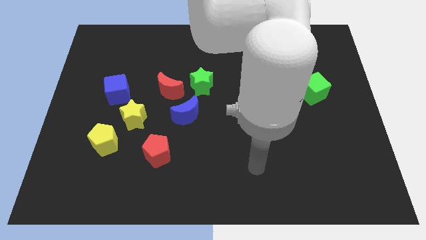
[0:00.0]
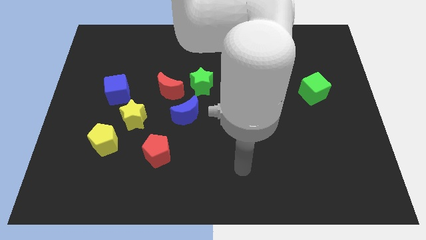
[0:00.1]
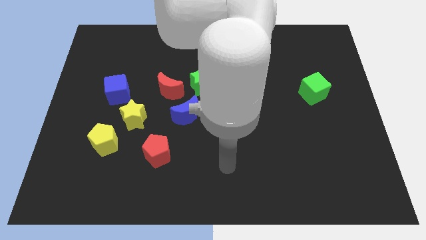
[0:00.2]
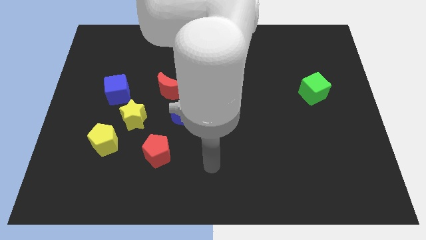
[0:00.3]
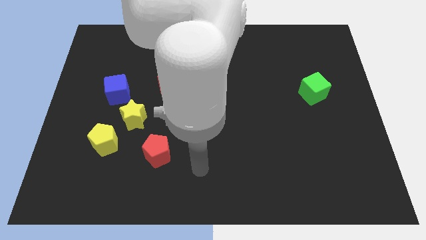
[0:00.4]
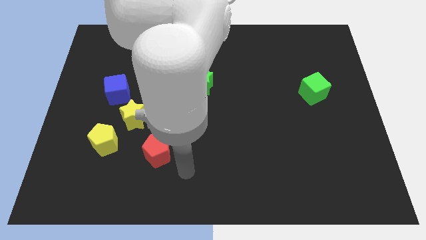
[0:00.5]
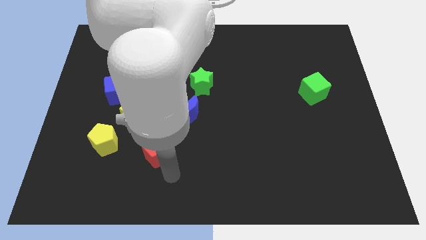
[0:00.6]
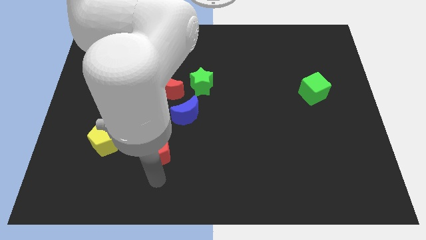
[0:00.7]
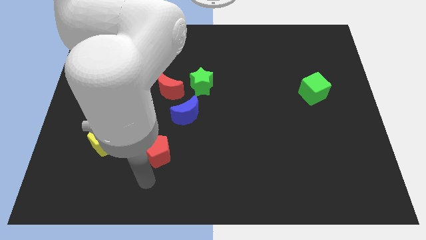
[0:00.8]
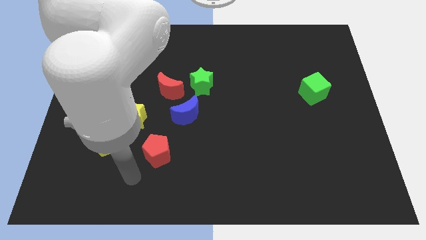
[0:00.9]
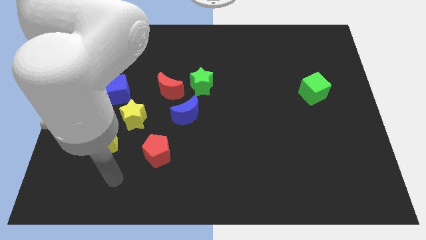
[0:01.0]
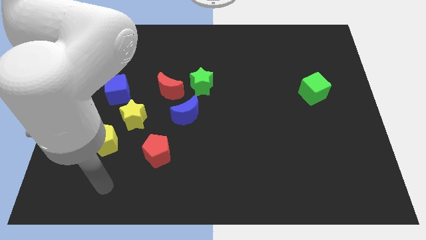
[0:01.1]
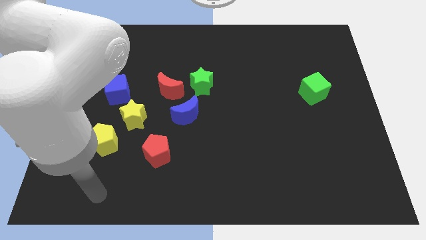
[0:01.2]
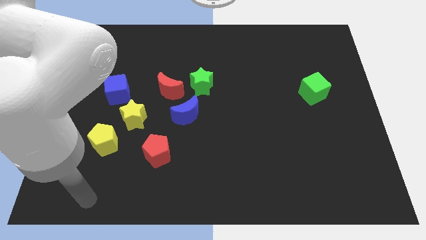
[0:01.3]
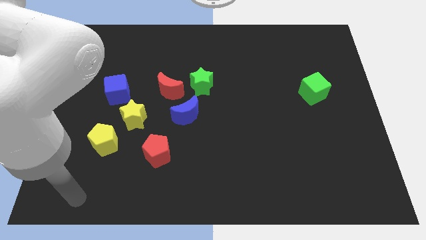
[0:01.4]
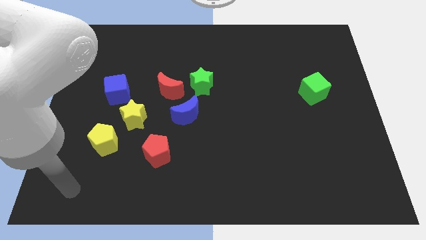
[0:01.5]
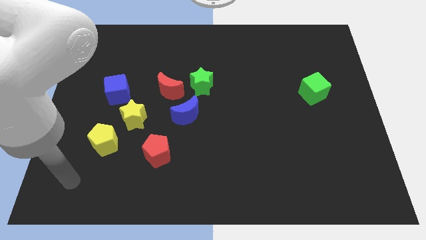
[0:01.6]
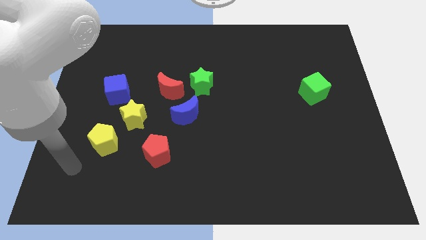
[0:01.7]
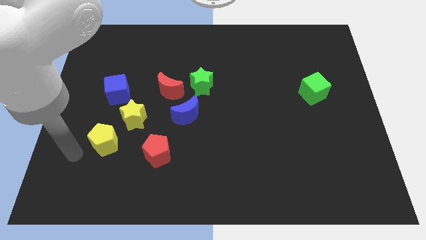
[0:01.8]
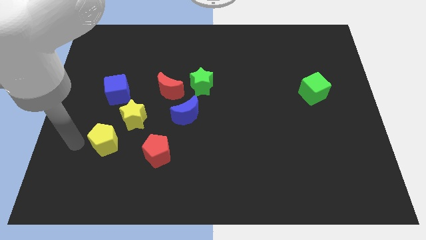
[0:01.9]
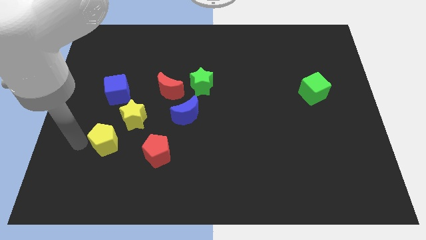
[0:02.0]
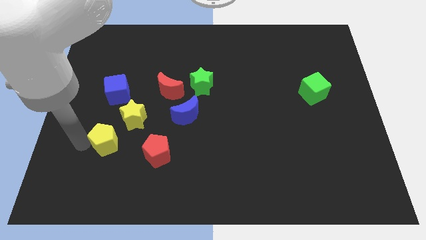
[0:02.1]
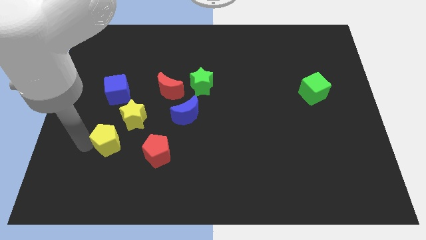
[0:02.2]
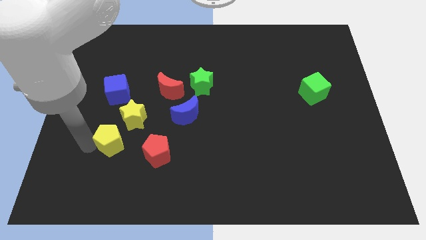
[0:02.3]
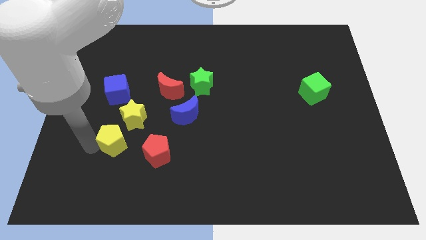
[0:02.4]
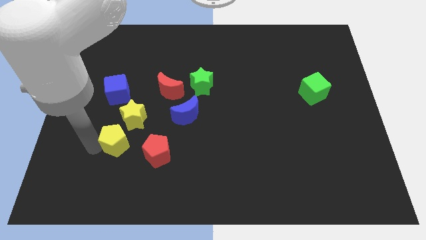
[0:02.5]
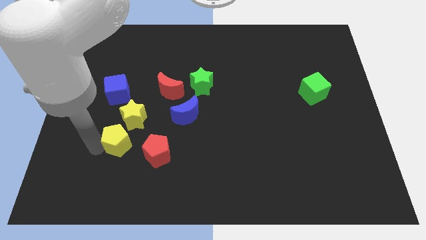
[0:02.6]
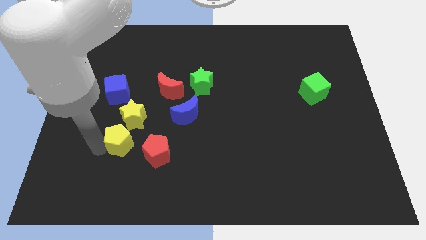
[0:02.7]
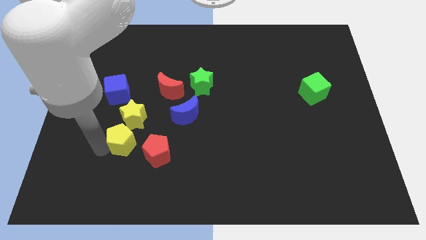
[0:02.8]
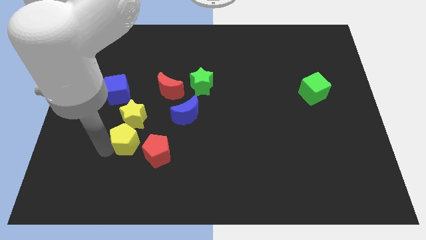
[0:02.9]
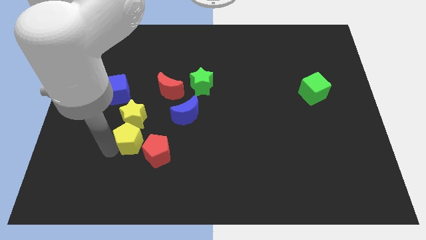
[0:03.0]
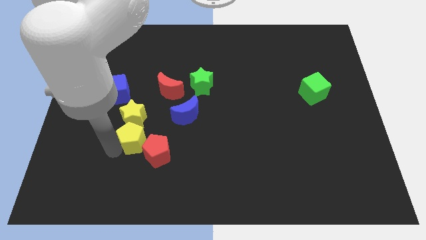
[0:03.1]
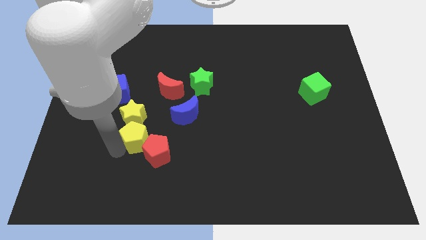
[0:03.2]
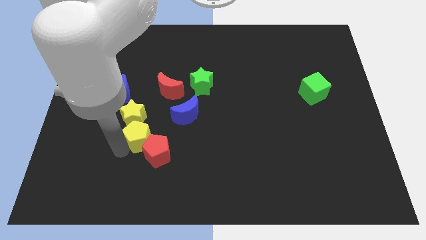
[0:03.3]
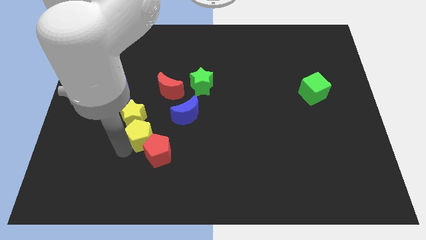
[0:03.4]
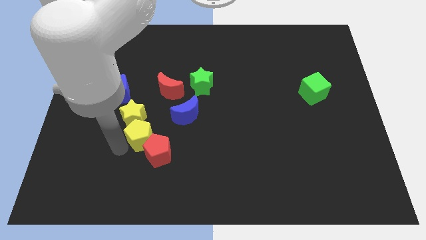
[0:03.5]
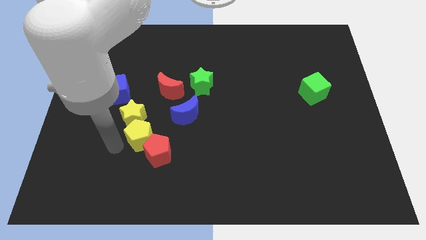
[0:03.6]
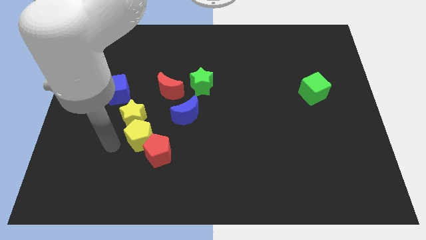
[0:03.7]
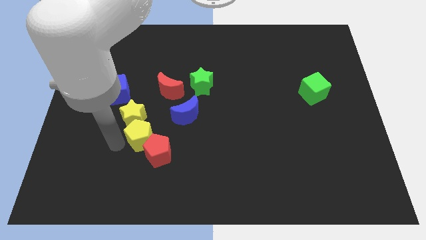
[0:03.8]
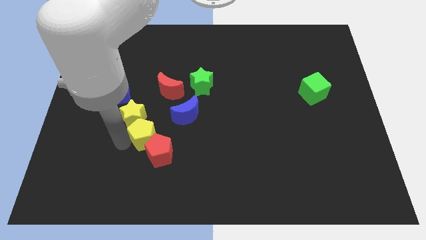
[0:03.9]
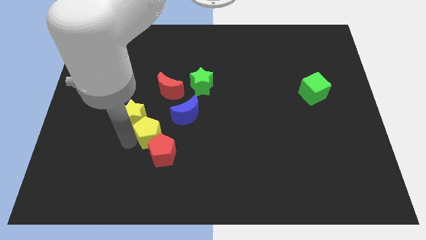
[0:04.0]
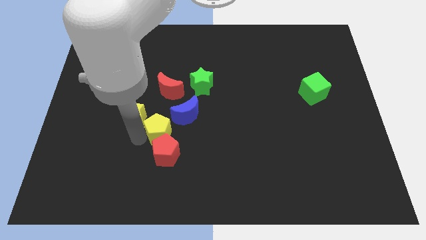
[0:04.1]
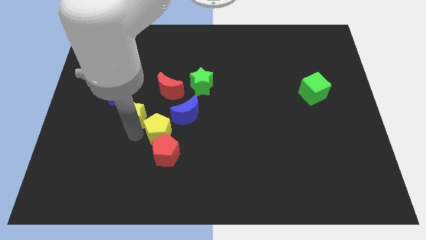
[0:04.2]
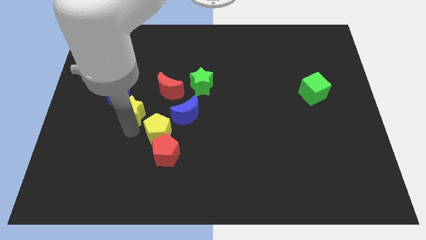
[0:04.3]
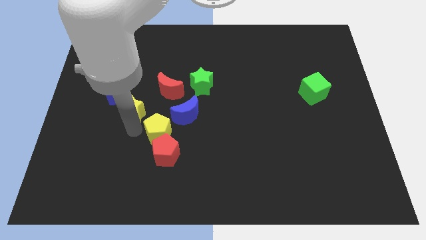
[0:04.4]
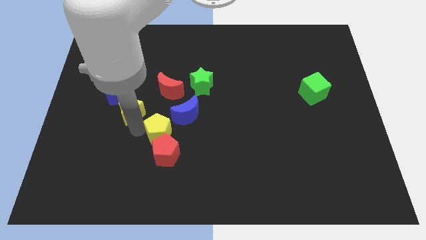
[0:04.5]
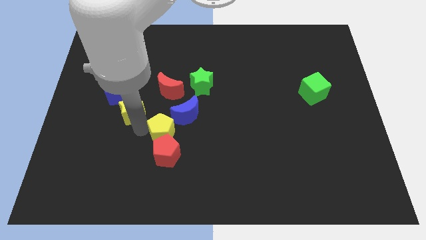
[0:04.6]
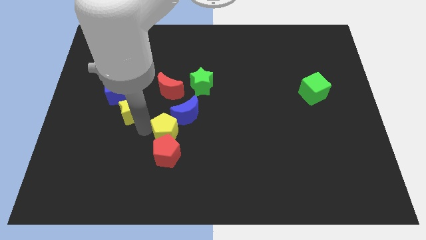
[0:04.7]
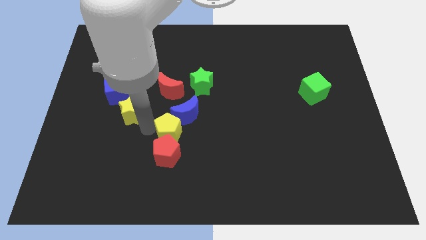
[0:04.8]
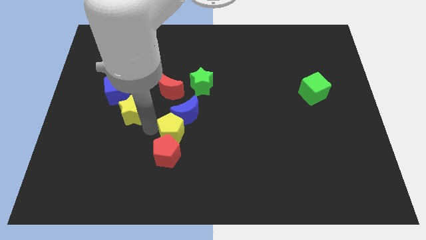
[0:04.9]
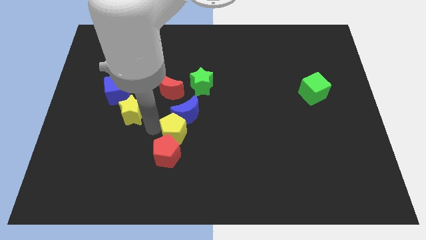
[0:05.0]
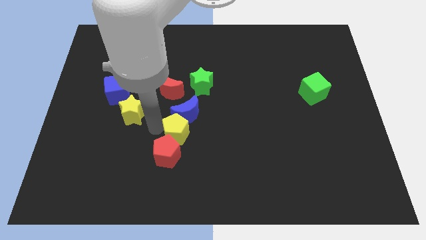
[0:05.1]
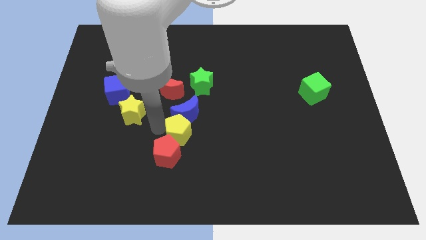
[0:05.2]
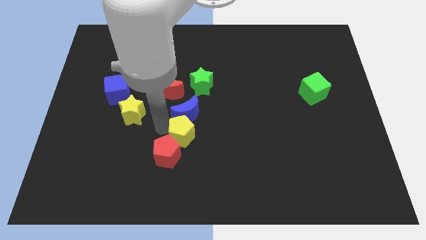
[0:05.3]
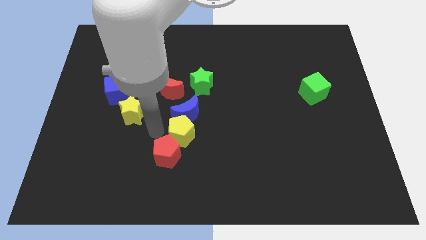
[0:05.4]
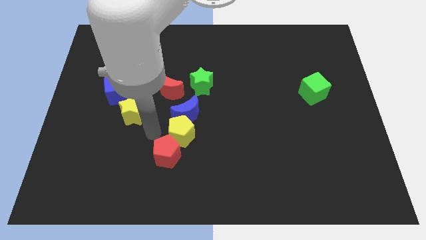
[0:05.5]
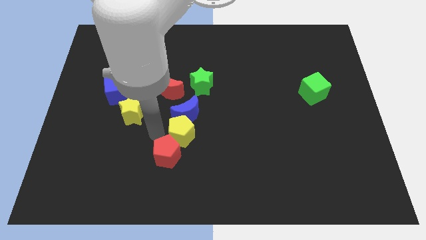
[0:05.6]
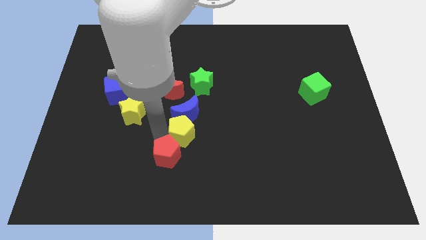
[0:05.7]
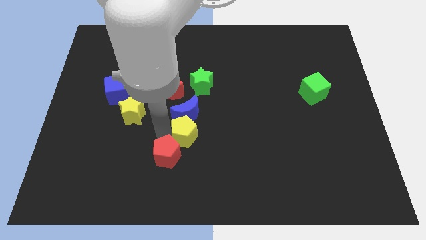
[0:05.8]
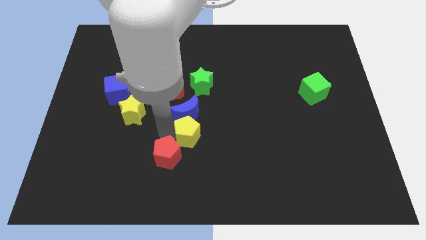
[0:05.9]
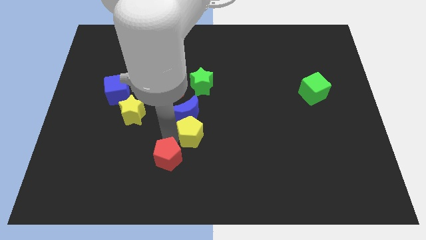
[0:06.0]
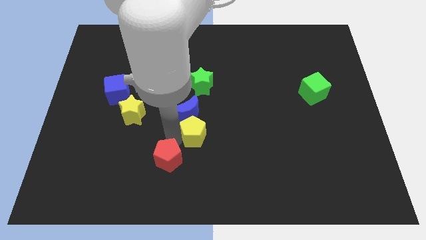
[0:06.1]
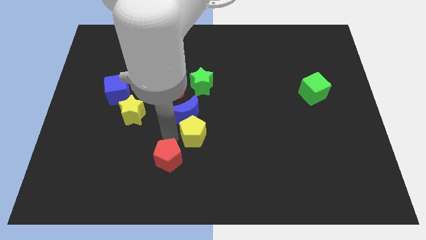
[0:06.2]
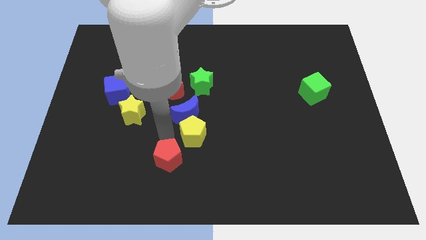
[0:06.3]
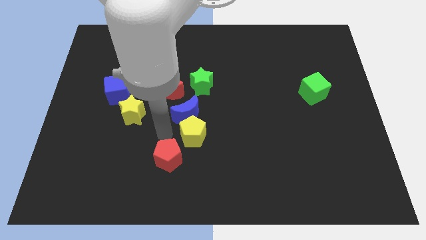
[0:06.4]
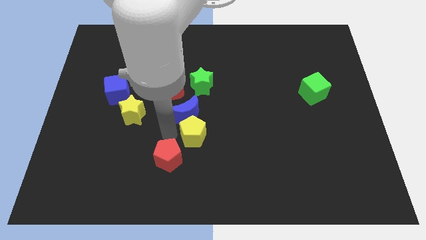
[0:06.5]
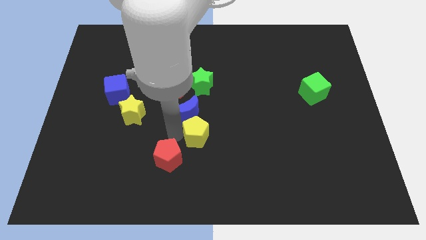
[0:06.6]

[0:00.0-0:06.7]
move the yellow pentagon to the right

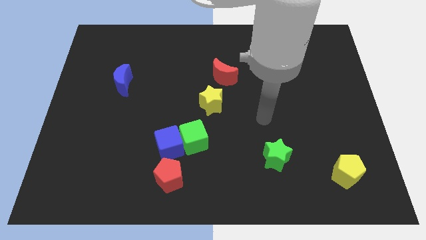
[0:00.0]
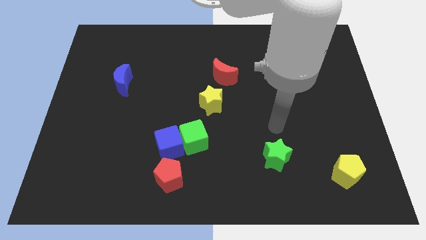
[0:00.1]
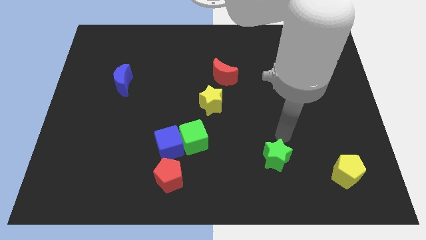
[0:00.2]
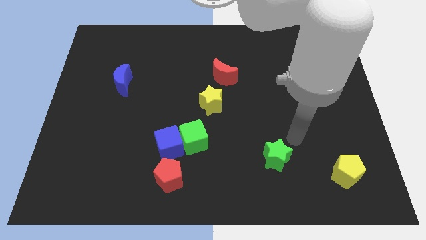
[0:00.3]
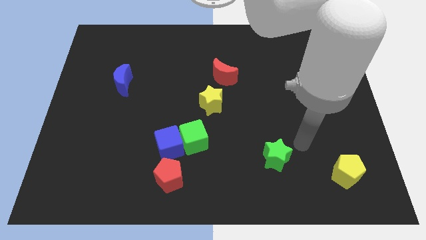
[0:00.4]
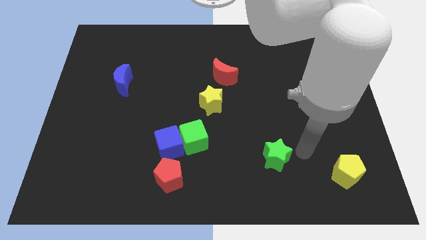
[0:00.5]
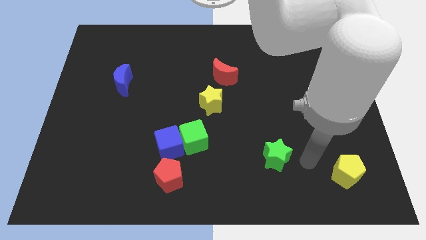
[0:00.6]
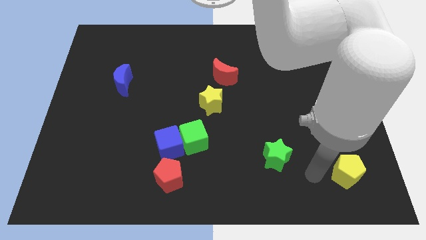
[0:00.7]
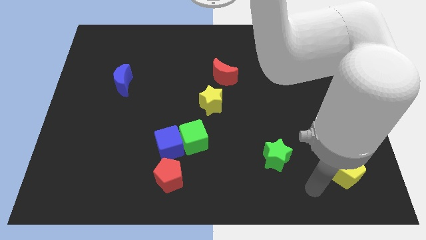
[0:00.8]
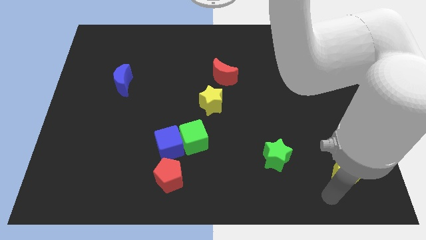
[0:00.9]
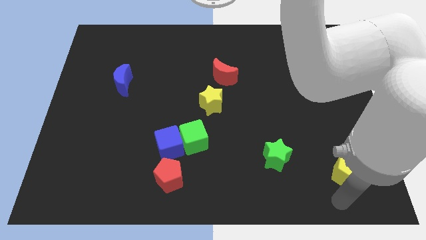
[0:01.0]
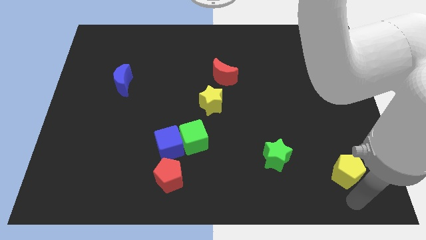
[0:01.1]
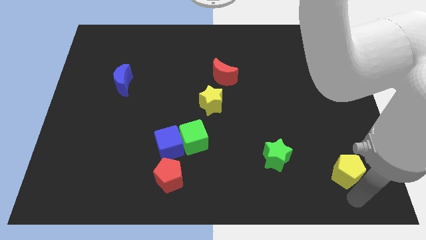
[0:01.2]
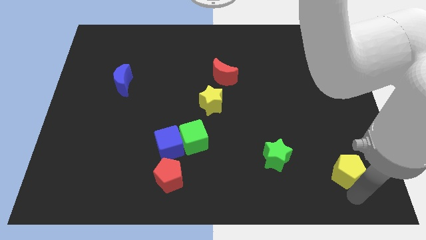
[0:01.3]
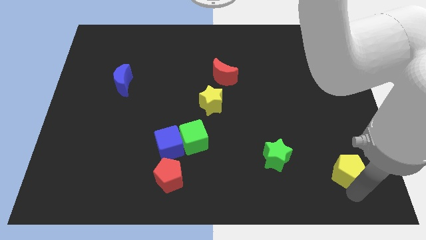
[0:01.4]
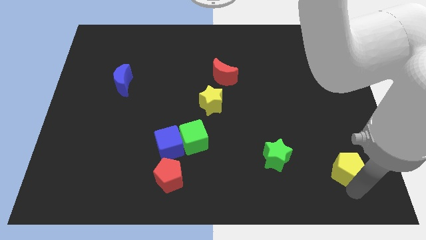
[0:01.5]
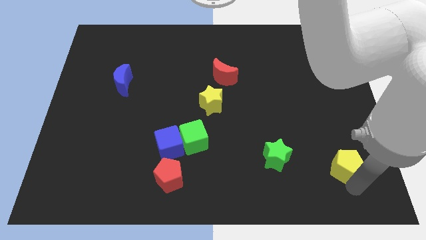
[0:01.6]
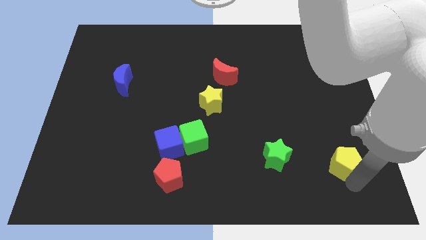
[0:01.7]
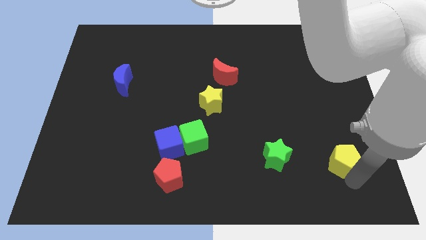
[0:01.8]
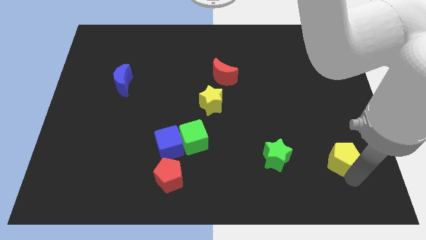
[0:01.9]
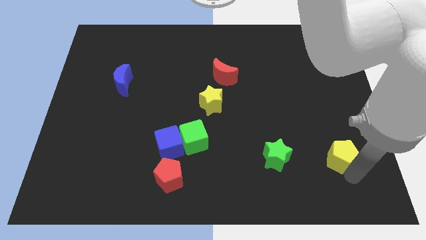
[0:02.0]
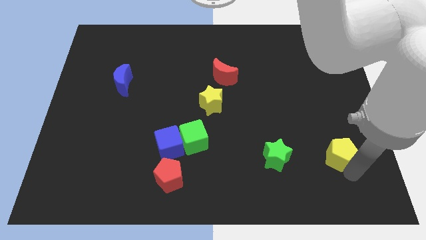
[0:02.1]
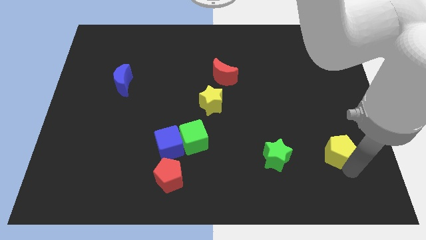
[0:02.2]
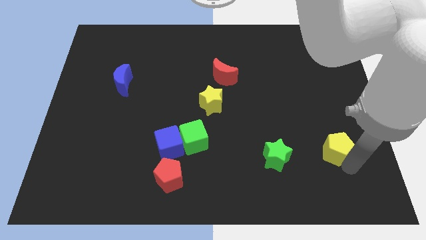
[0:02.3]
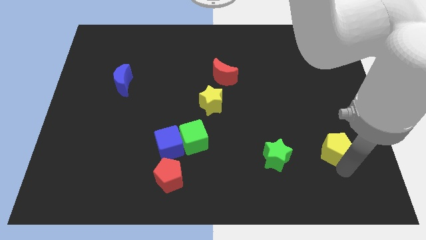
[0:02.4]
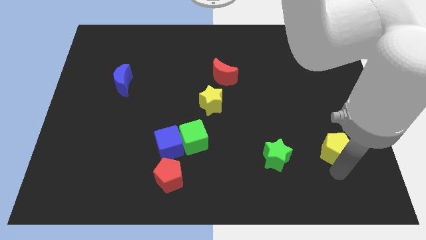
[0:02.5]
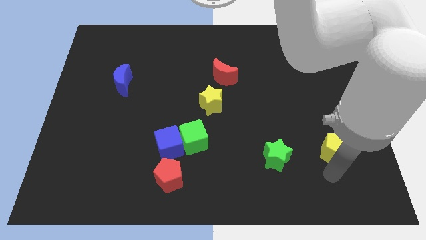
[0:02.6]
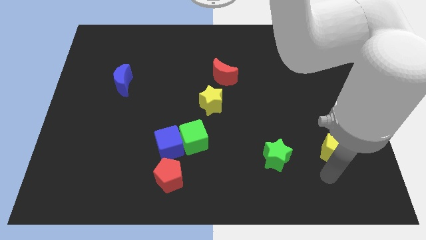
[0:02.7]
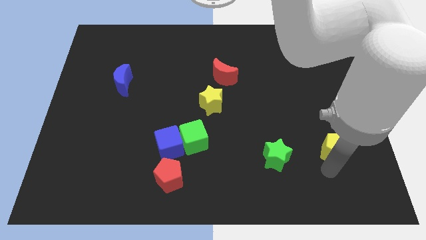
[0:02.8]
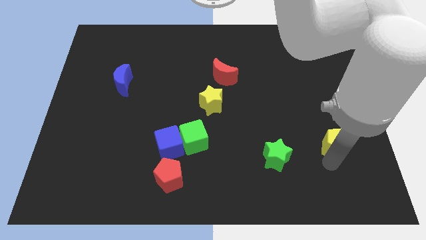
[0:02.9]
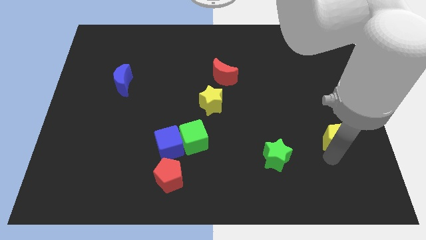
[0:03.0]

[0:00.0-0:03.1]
slide the yellow pentagon up somewhat
